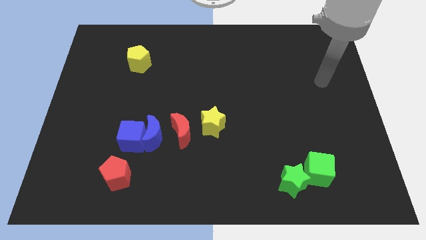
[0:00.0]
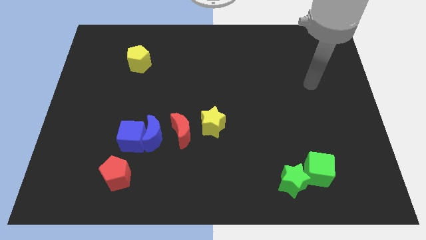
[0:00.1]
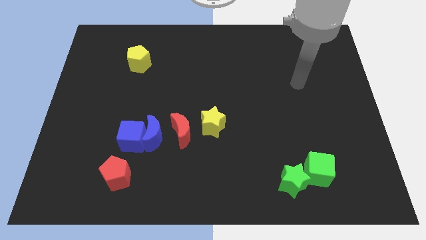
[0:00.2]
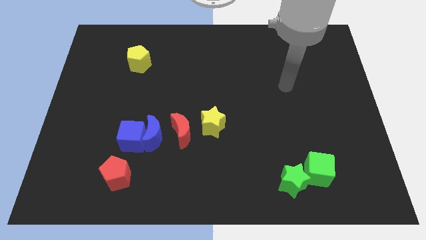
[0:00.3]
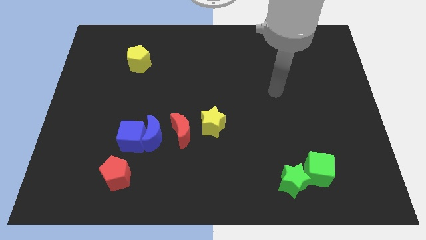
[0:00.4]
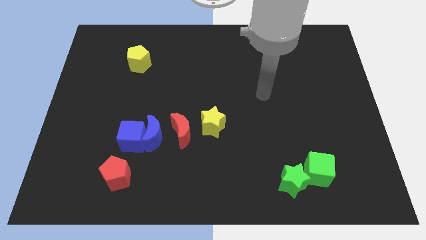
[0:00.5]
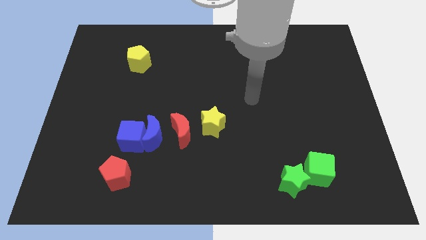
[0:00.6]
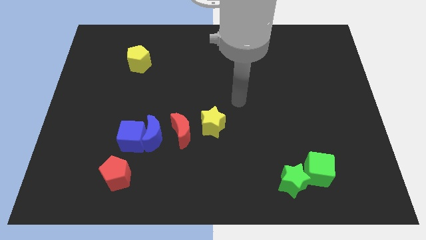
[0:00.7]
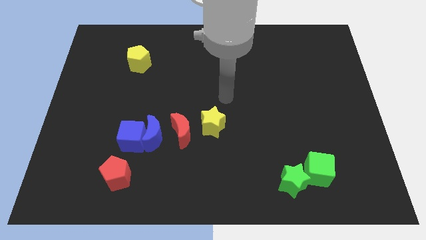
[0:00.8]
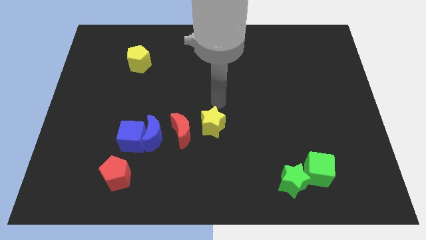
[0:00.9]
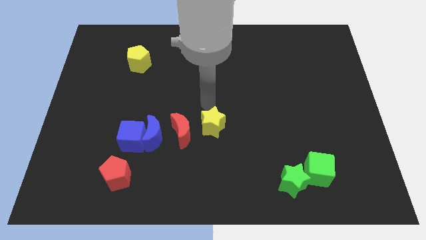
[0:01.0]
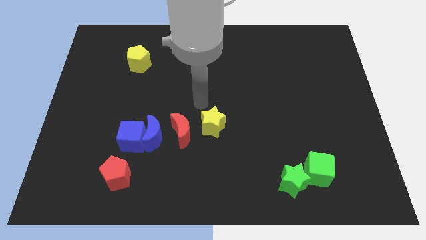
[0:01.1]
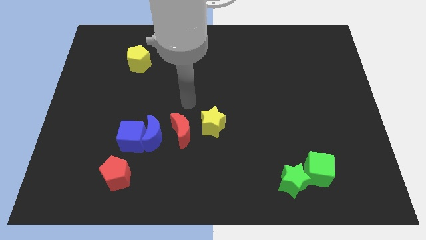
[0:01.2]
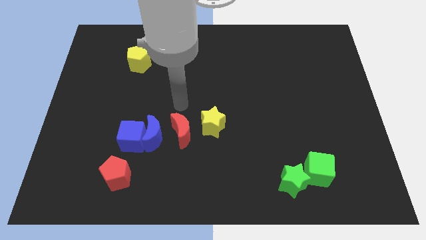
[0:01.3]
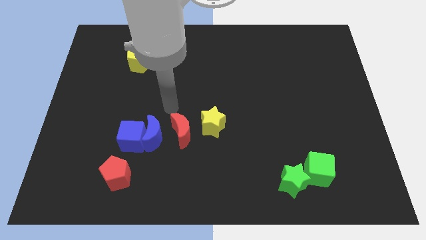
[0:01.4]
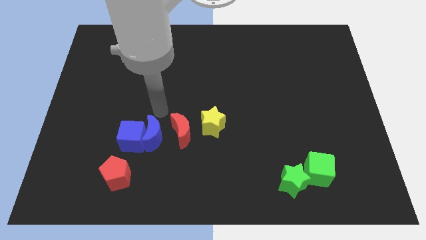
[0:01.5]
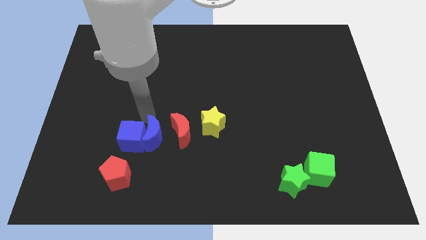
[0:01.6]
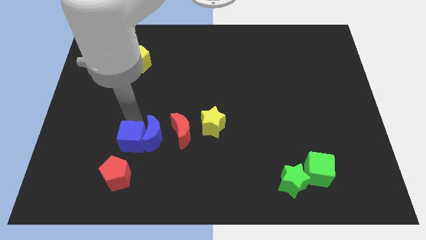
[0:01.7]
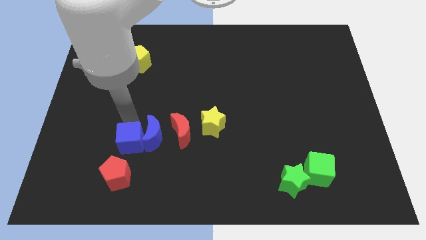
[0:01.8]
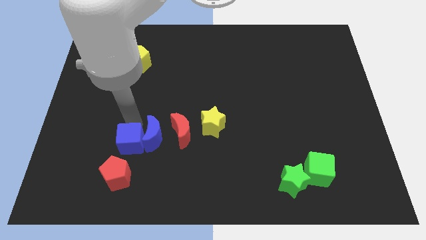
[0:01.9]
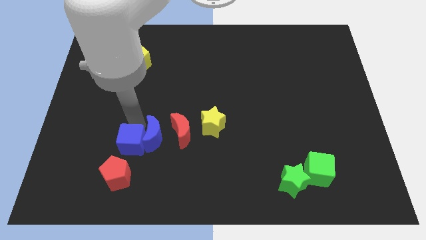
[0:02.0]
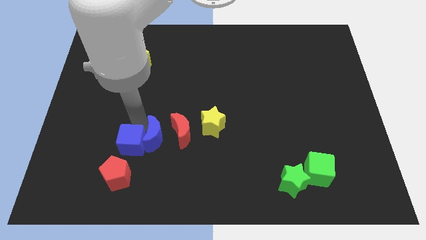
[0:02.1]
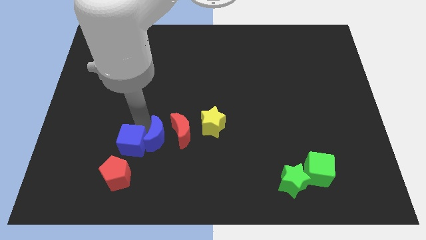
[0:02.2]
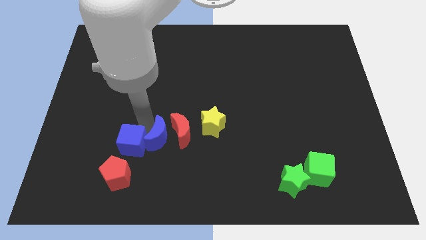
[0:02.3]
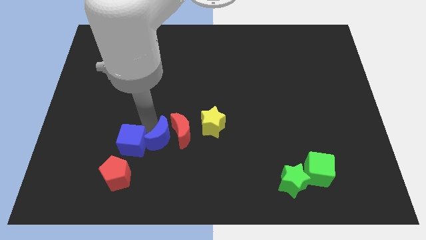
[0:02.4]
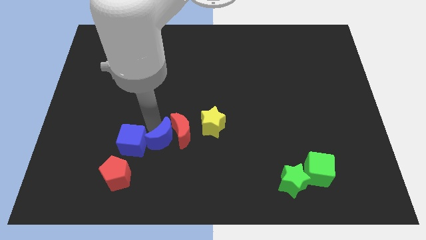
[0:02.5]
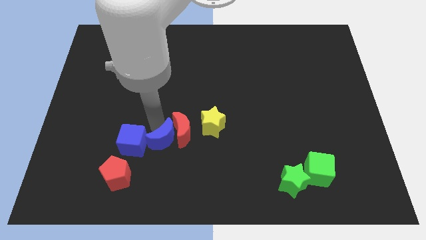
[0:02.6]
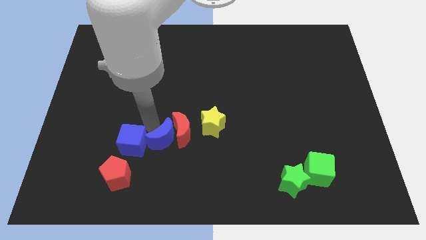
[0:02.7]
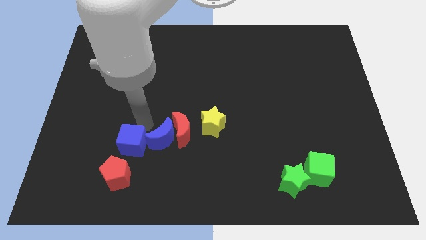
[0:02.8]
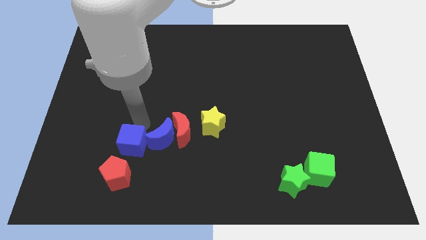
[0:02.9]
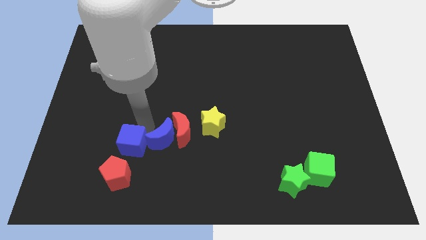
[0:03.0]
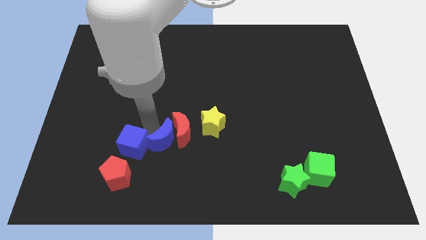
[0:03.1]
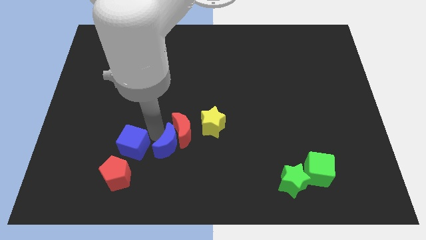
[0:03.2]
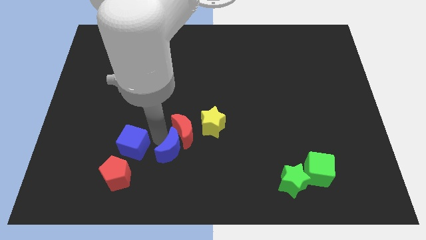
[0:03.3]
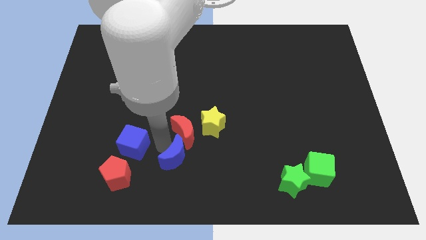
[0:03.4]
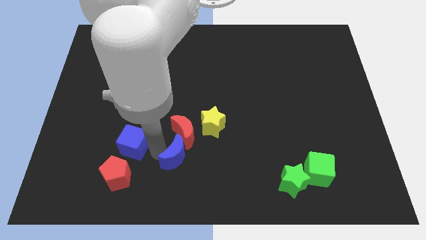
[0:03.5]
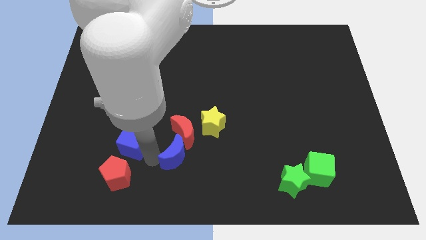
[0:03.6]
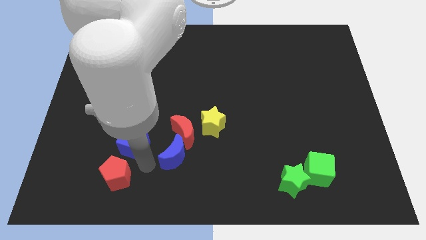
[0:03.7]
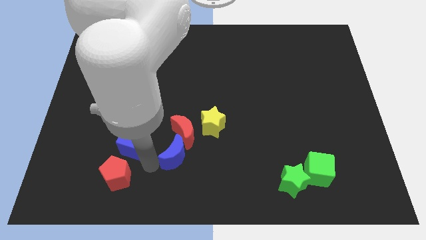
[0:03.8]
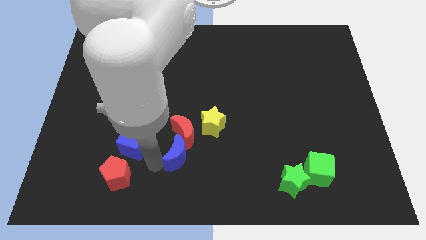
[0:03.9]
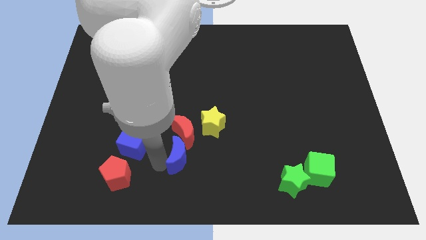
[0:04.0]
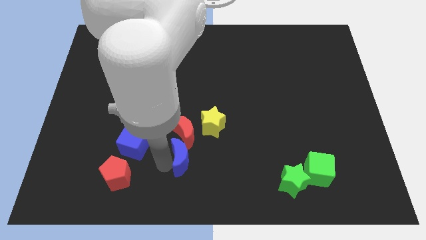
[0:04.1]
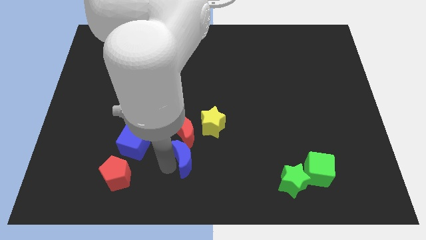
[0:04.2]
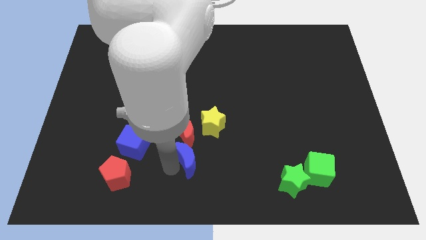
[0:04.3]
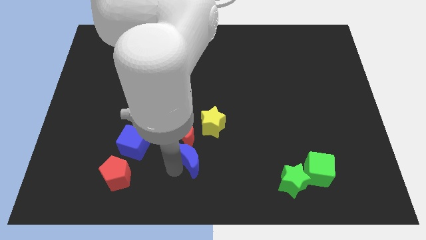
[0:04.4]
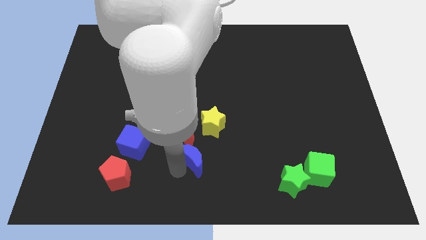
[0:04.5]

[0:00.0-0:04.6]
move the blue moon to the right slightly

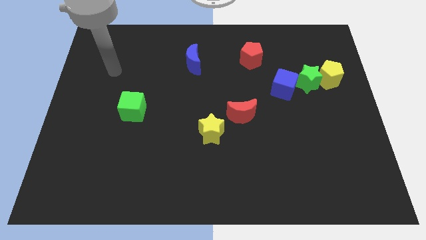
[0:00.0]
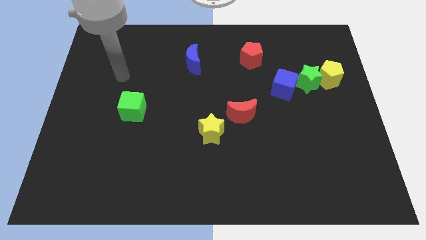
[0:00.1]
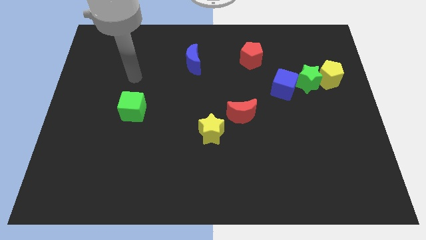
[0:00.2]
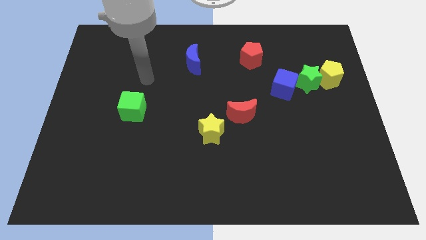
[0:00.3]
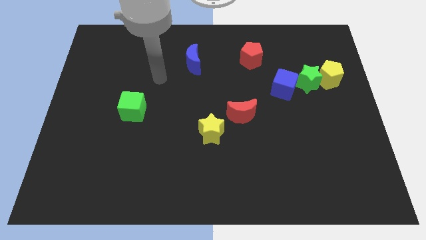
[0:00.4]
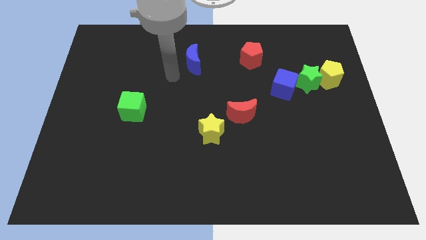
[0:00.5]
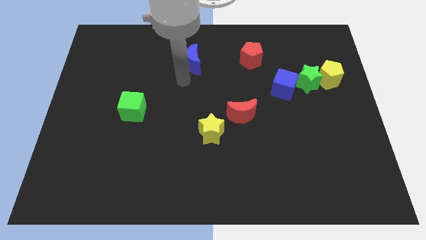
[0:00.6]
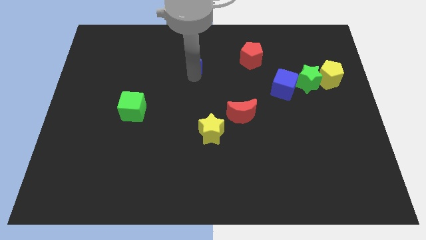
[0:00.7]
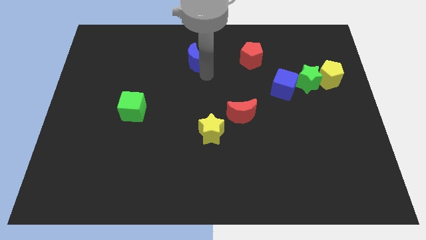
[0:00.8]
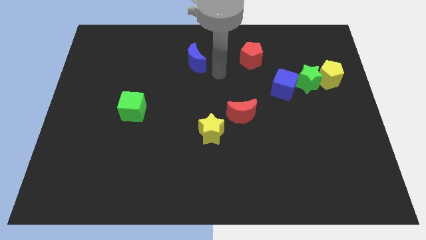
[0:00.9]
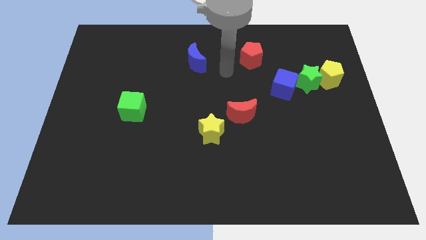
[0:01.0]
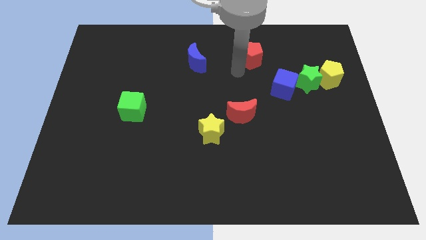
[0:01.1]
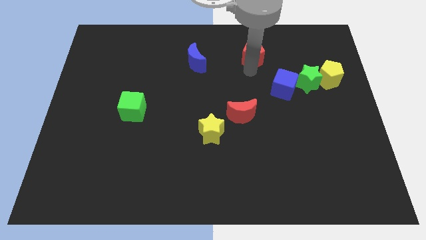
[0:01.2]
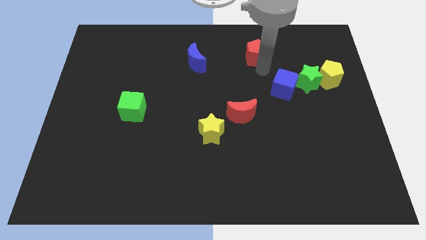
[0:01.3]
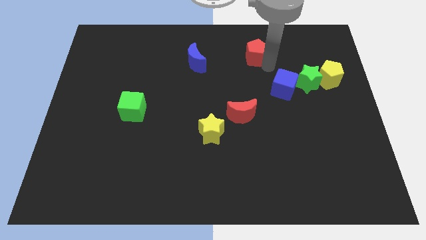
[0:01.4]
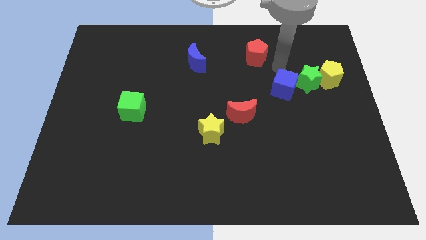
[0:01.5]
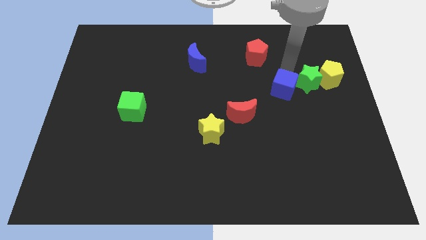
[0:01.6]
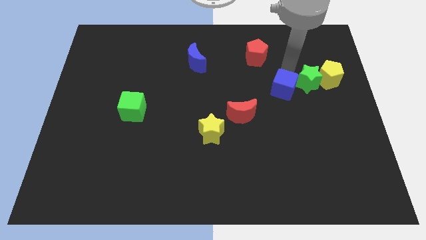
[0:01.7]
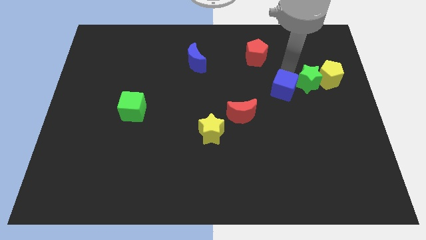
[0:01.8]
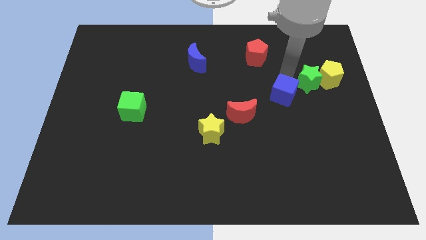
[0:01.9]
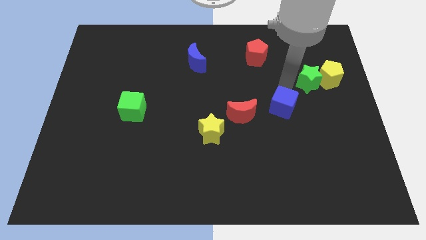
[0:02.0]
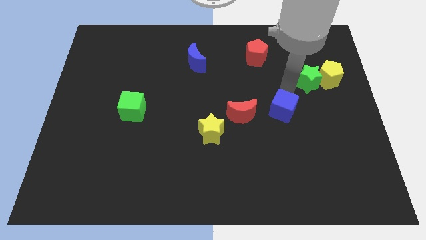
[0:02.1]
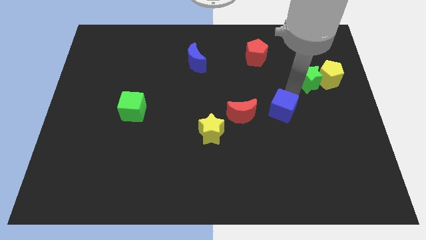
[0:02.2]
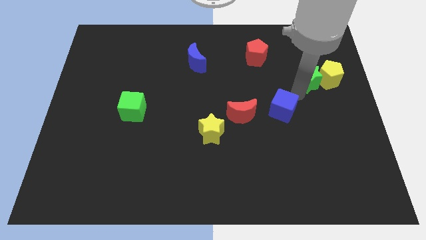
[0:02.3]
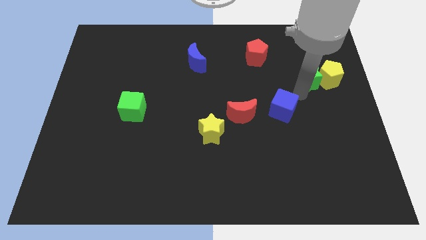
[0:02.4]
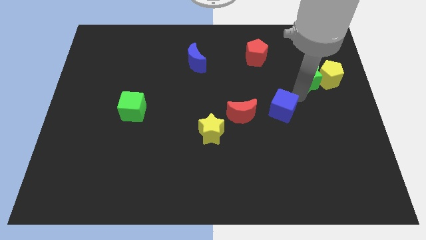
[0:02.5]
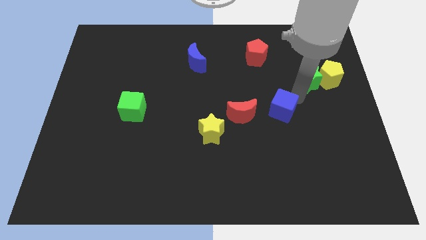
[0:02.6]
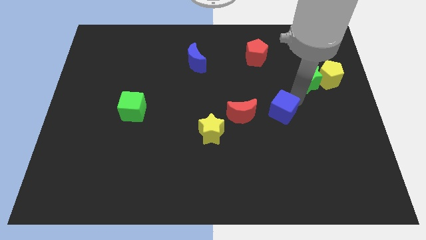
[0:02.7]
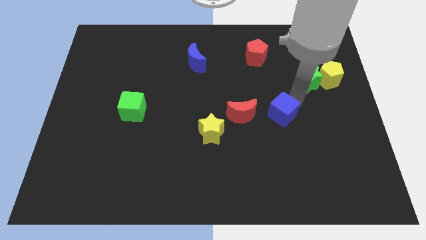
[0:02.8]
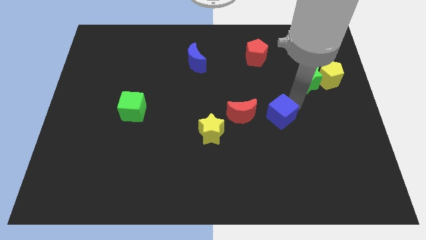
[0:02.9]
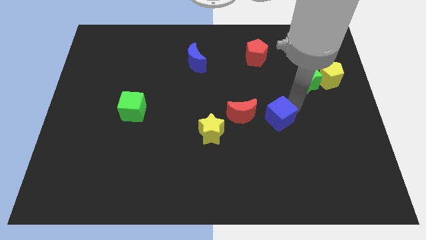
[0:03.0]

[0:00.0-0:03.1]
move the blue cube downwards and to the left somewhat
